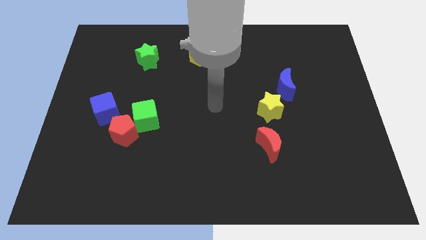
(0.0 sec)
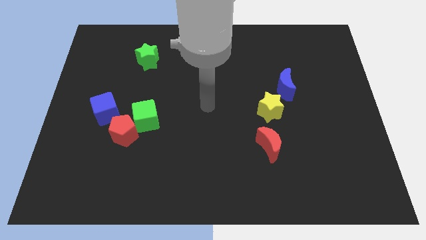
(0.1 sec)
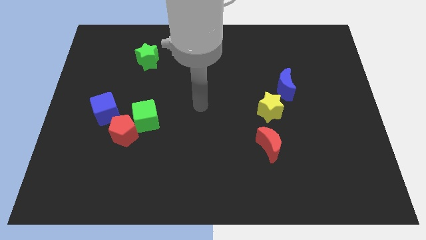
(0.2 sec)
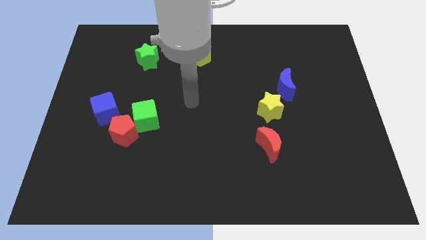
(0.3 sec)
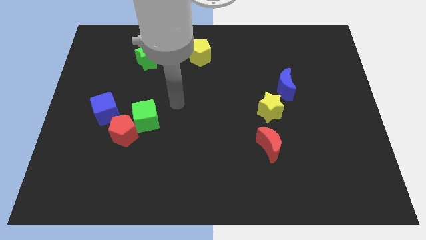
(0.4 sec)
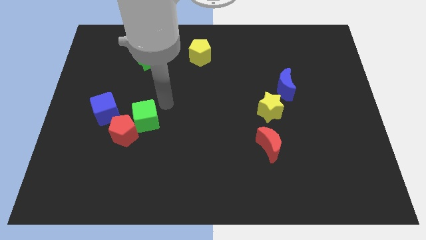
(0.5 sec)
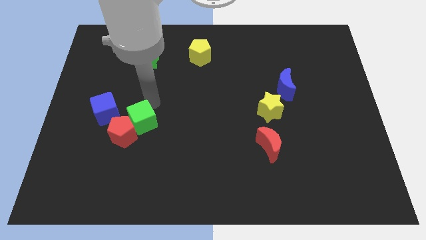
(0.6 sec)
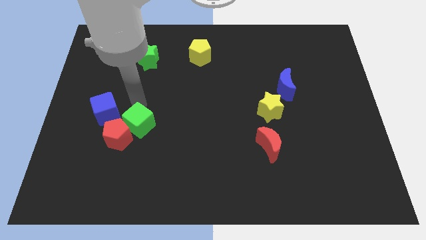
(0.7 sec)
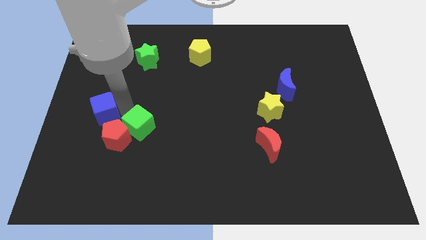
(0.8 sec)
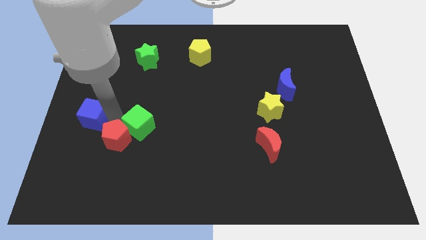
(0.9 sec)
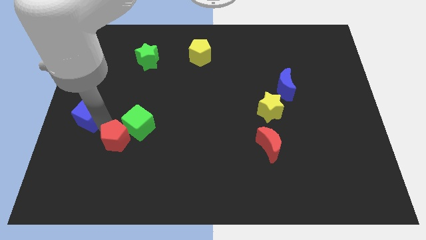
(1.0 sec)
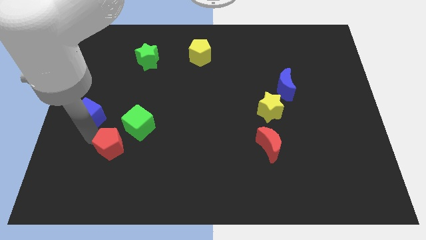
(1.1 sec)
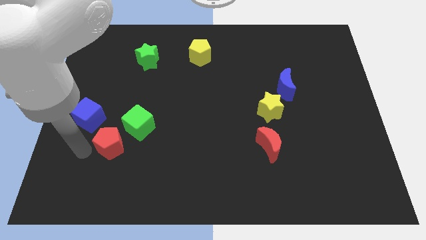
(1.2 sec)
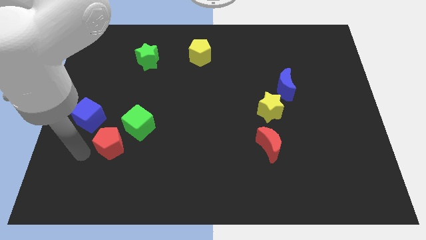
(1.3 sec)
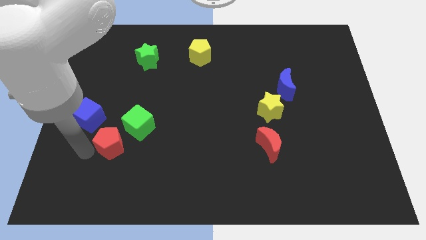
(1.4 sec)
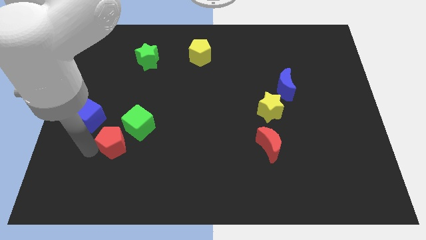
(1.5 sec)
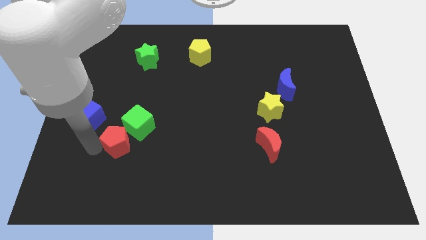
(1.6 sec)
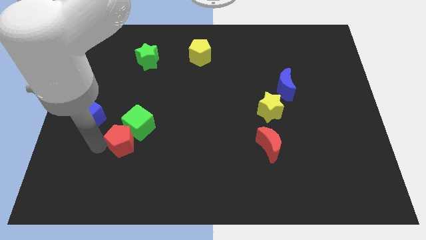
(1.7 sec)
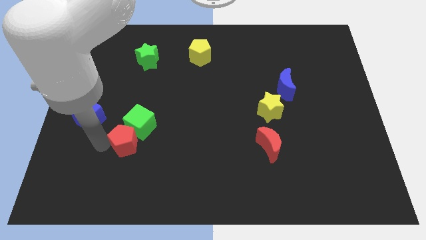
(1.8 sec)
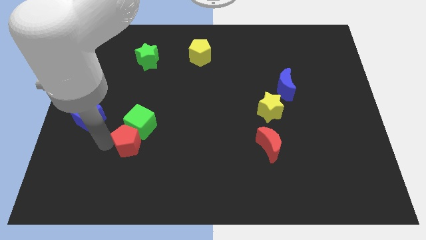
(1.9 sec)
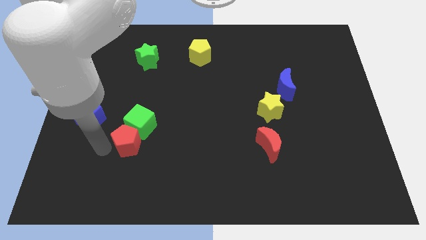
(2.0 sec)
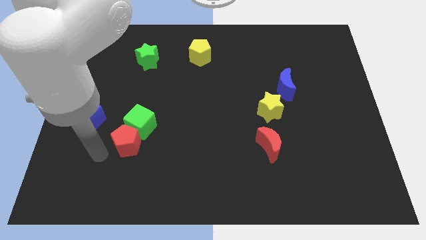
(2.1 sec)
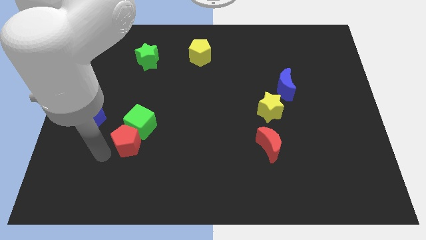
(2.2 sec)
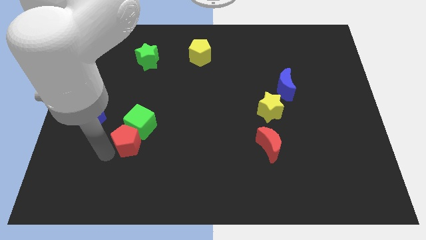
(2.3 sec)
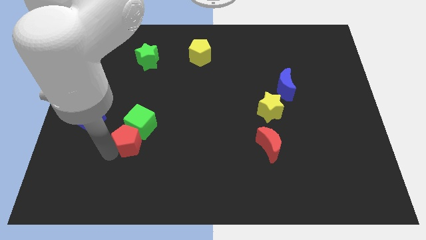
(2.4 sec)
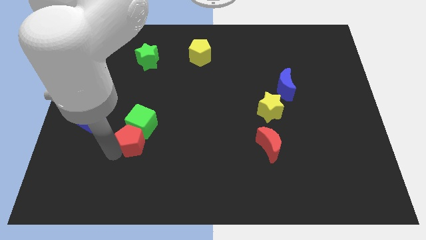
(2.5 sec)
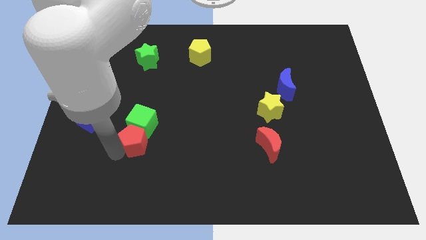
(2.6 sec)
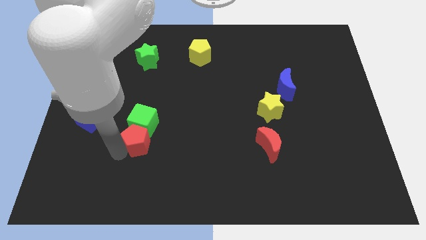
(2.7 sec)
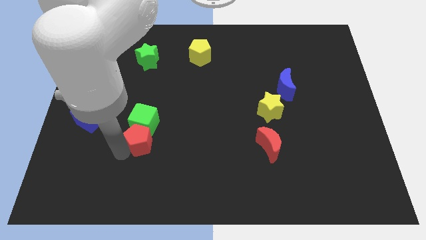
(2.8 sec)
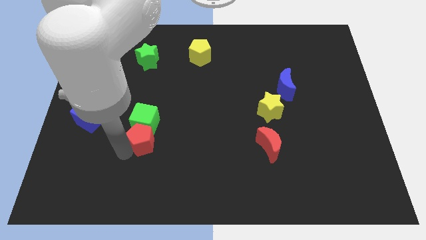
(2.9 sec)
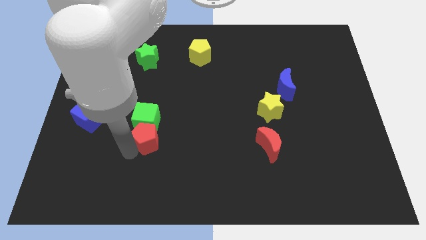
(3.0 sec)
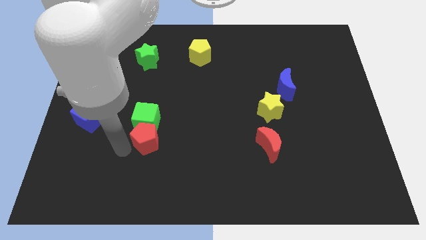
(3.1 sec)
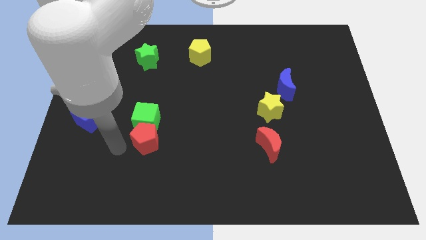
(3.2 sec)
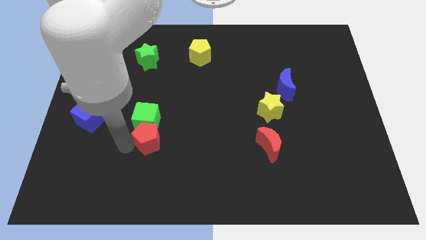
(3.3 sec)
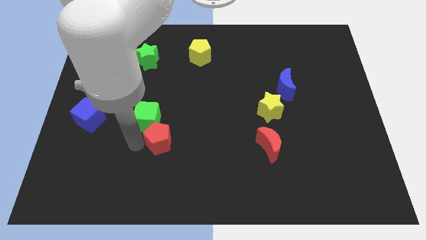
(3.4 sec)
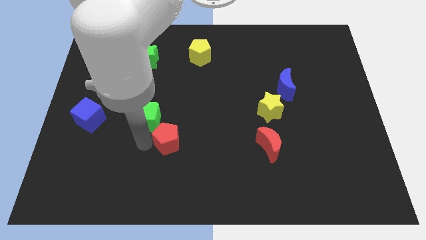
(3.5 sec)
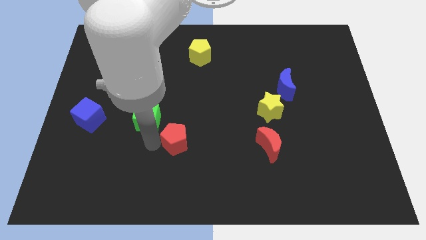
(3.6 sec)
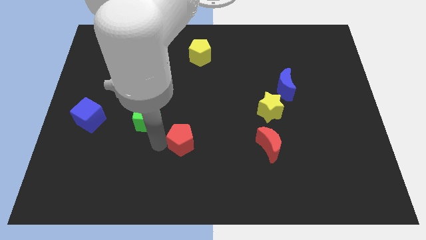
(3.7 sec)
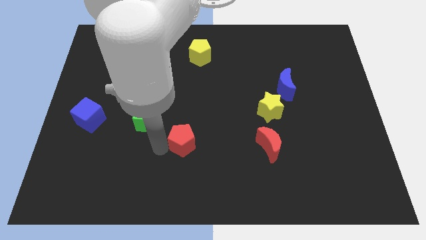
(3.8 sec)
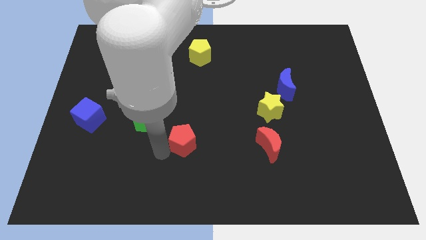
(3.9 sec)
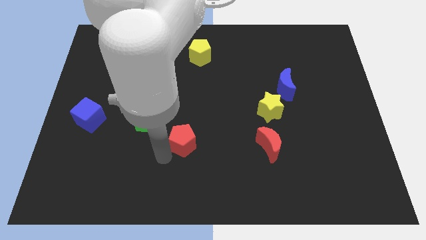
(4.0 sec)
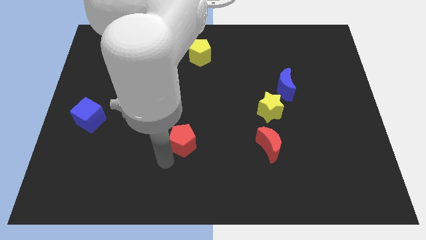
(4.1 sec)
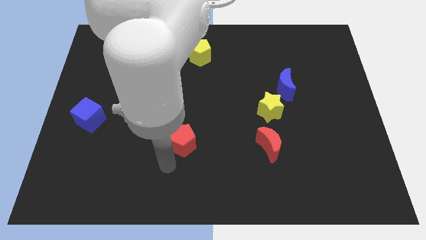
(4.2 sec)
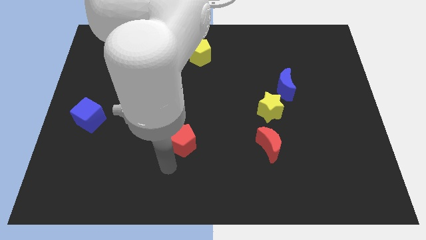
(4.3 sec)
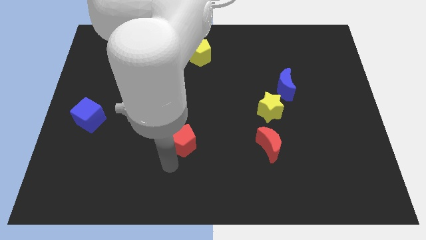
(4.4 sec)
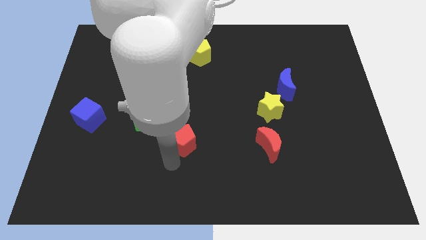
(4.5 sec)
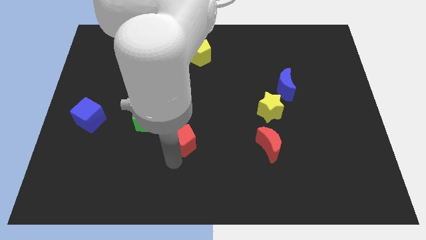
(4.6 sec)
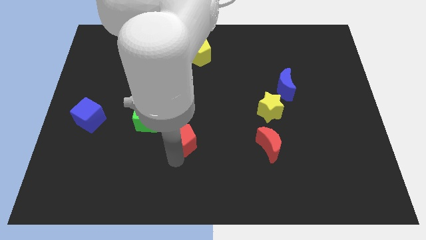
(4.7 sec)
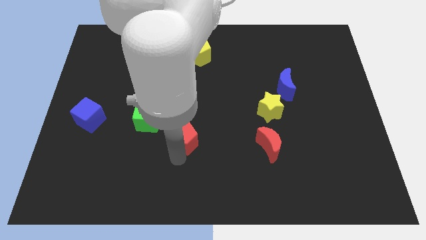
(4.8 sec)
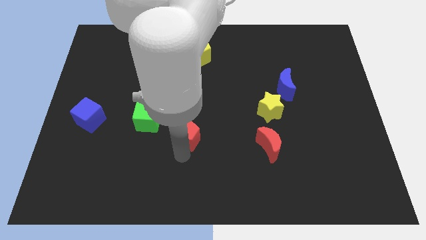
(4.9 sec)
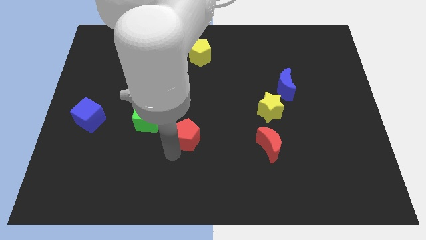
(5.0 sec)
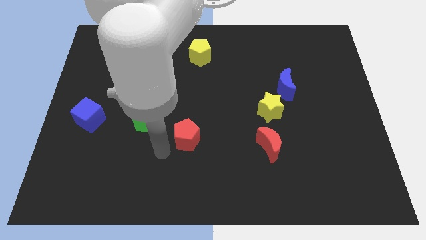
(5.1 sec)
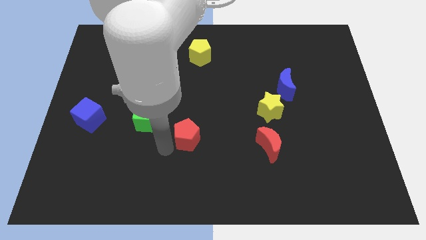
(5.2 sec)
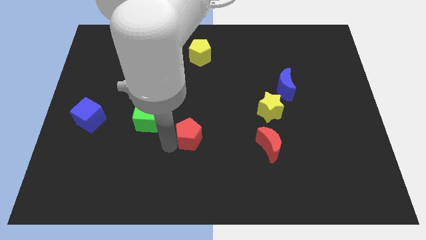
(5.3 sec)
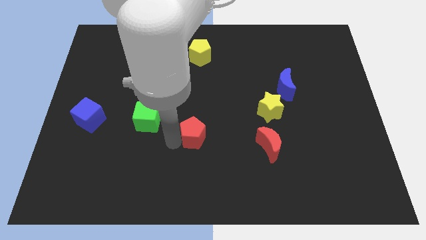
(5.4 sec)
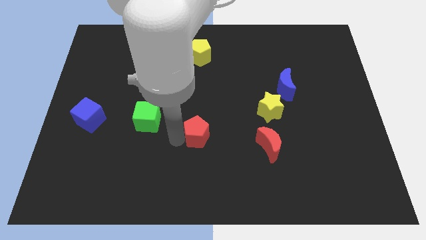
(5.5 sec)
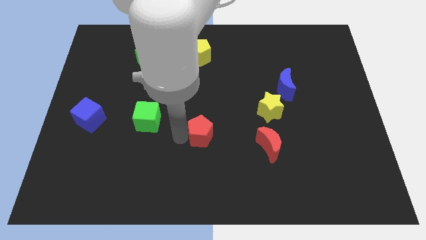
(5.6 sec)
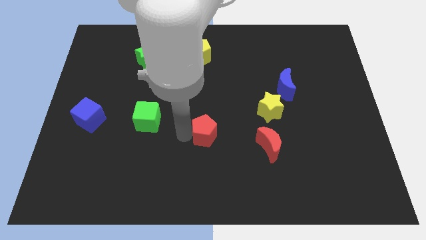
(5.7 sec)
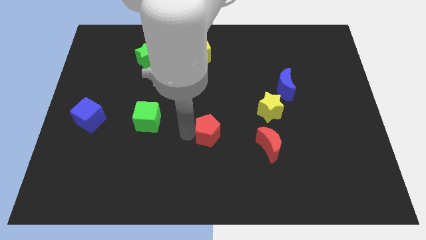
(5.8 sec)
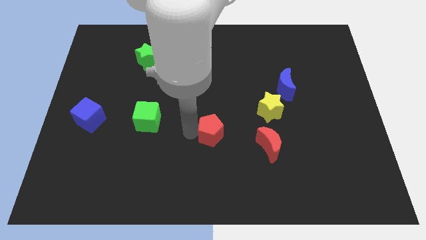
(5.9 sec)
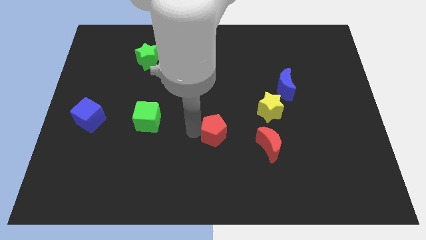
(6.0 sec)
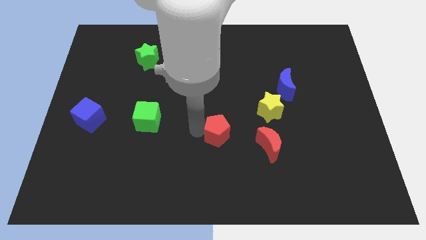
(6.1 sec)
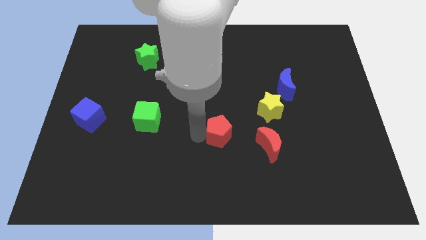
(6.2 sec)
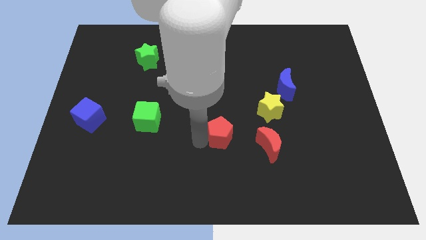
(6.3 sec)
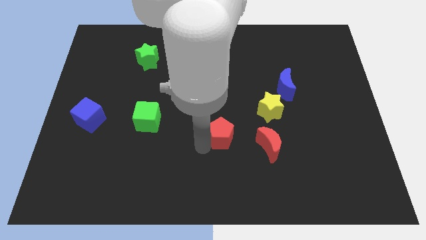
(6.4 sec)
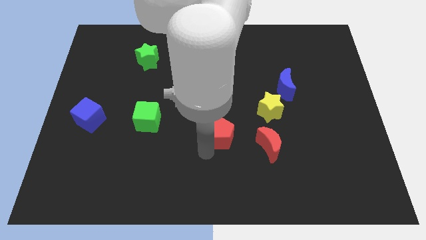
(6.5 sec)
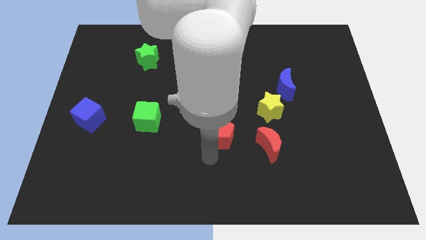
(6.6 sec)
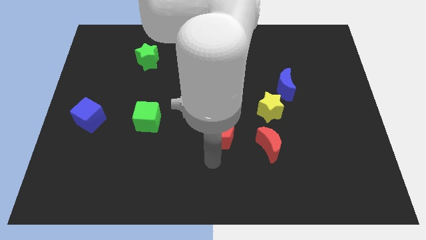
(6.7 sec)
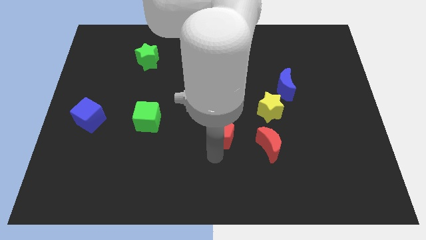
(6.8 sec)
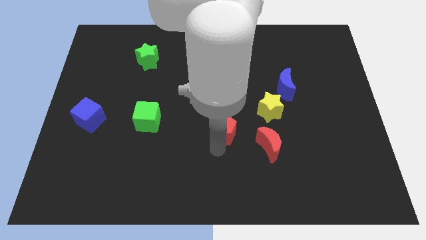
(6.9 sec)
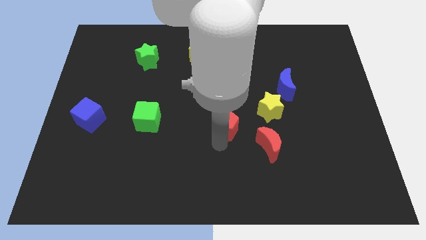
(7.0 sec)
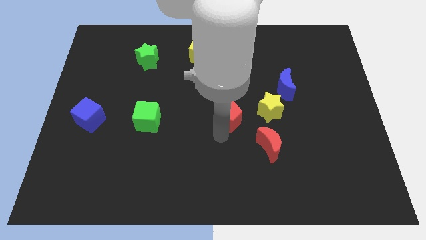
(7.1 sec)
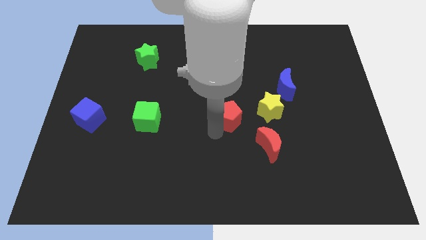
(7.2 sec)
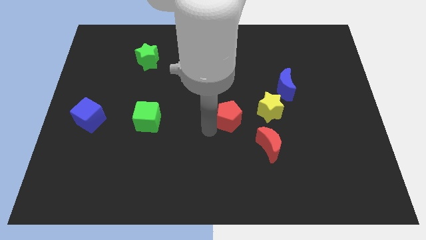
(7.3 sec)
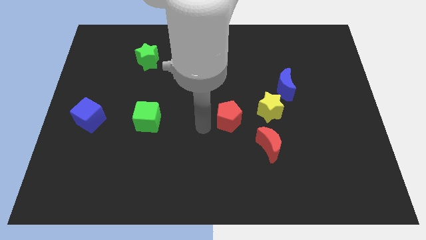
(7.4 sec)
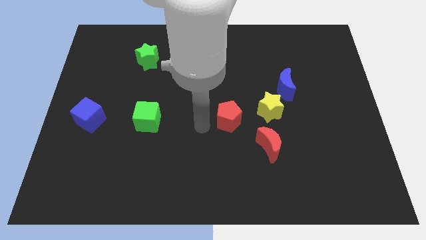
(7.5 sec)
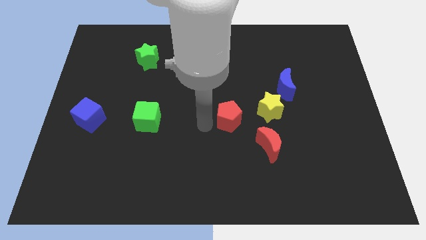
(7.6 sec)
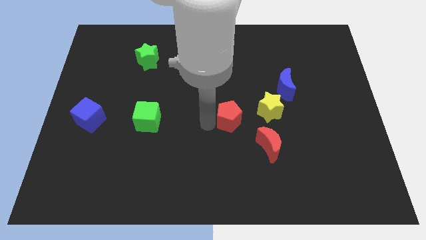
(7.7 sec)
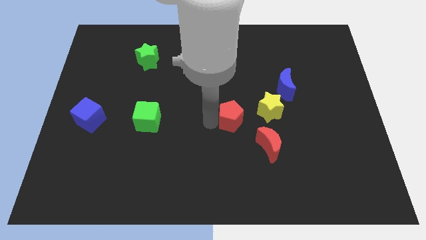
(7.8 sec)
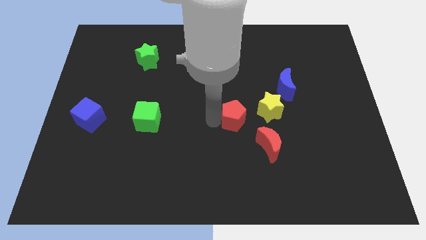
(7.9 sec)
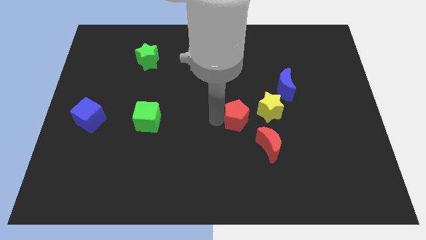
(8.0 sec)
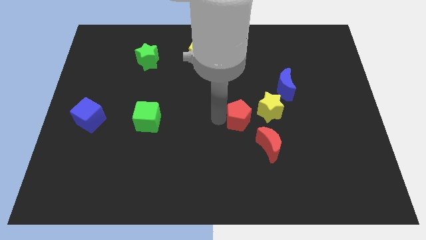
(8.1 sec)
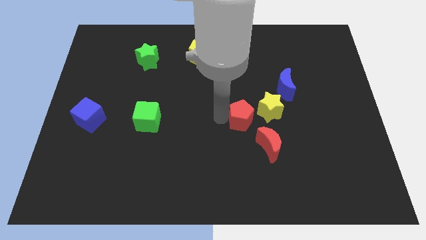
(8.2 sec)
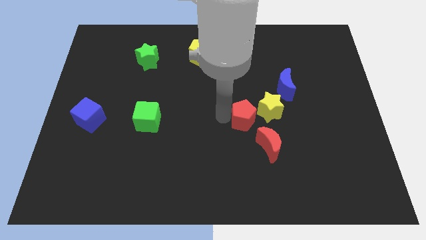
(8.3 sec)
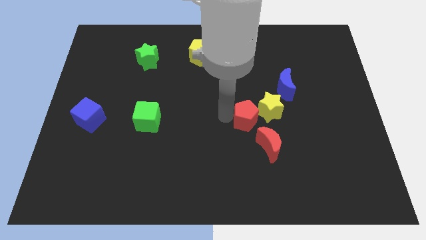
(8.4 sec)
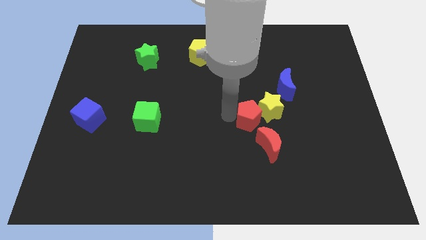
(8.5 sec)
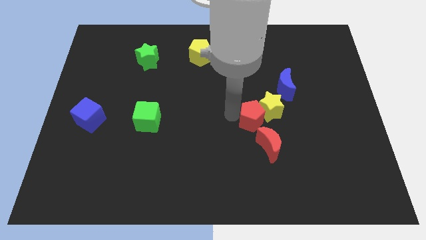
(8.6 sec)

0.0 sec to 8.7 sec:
put the red pentagon to the bottom left of the blue moon
